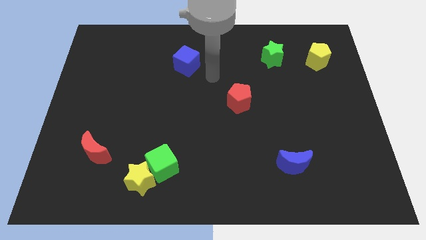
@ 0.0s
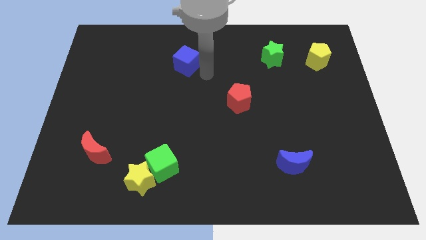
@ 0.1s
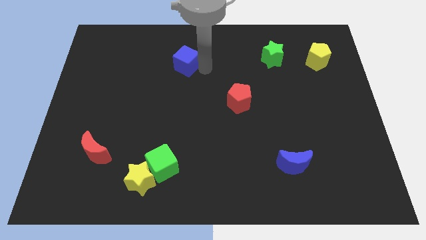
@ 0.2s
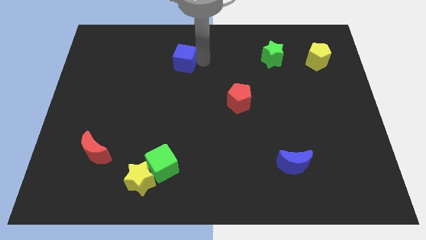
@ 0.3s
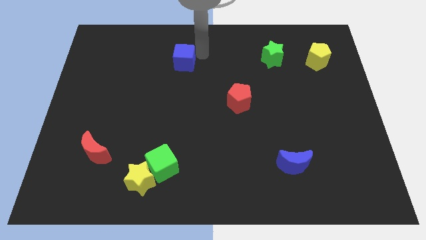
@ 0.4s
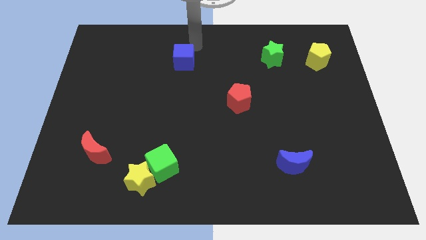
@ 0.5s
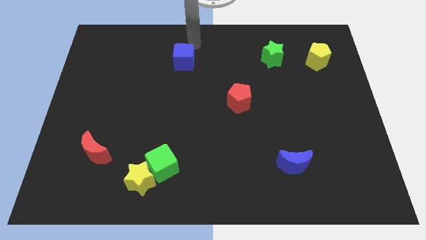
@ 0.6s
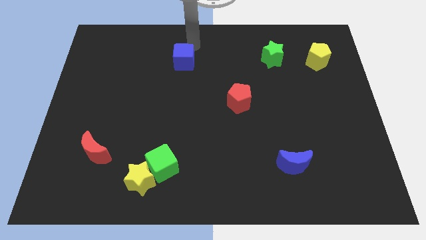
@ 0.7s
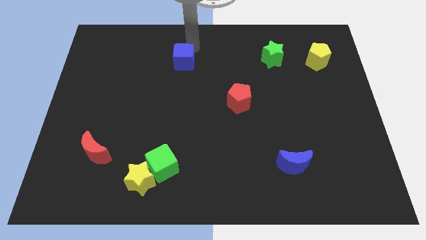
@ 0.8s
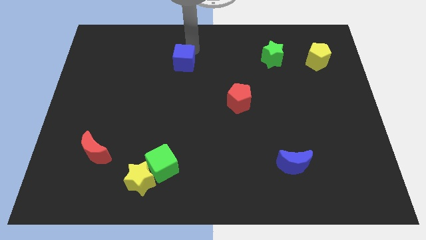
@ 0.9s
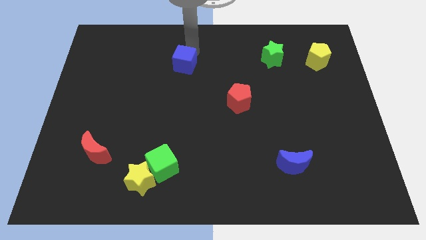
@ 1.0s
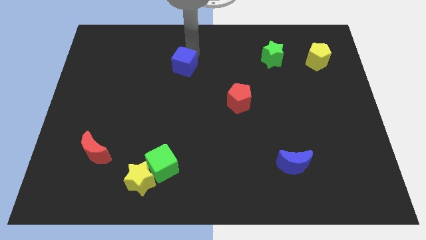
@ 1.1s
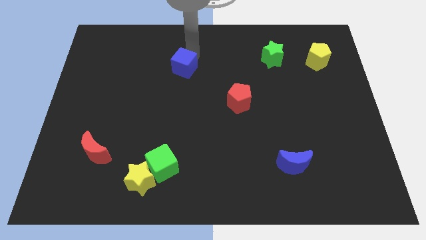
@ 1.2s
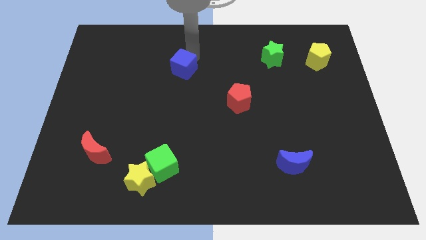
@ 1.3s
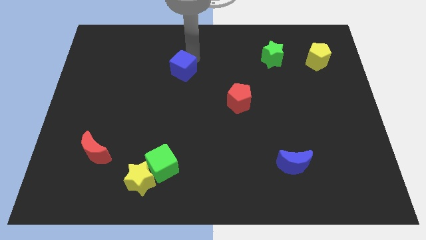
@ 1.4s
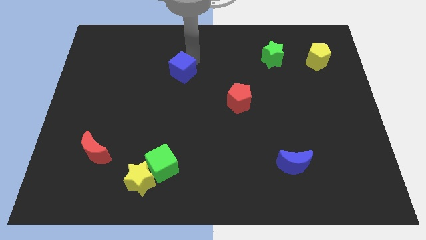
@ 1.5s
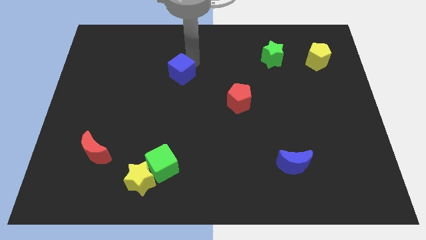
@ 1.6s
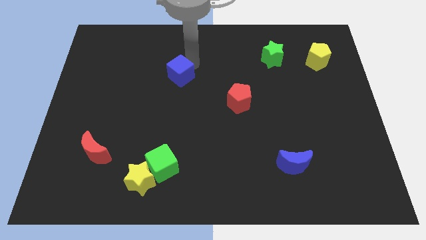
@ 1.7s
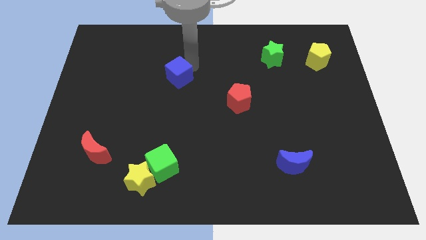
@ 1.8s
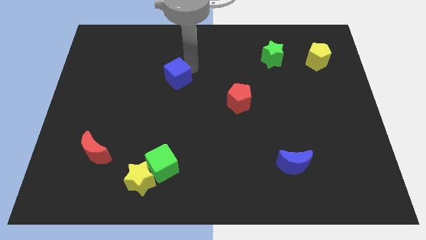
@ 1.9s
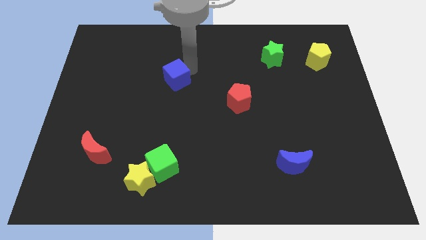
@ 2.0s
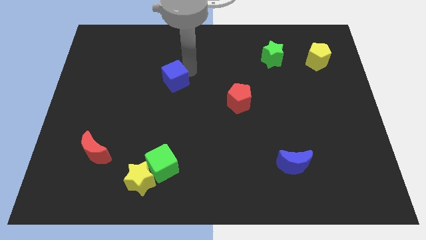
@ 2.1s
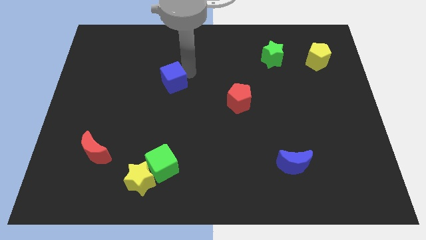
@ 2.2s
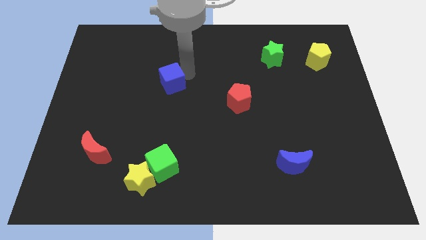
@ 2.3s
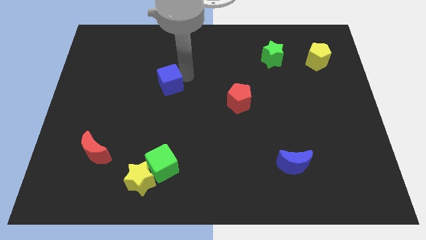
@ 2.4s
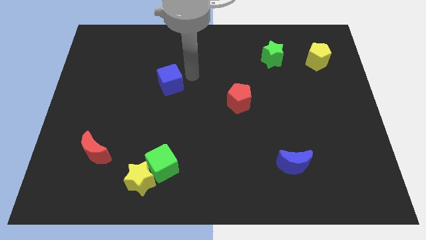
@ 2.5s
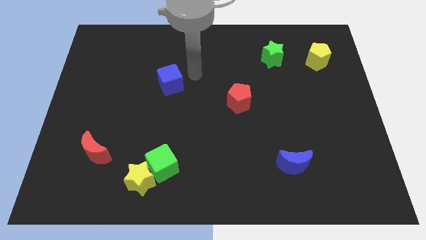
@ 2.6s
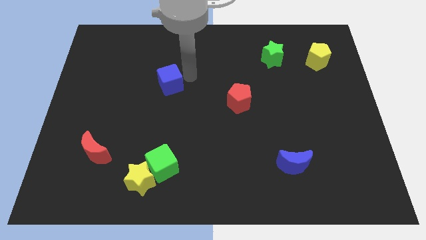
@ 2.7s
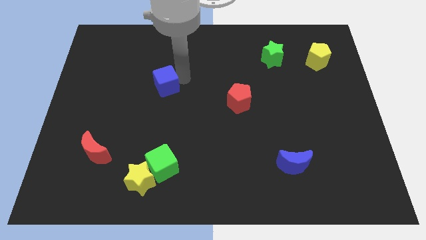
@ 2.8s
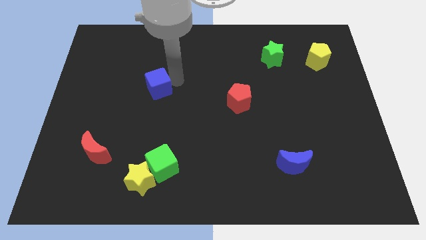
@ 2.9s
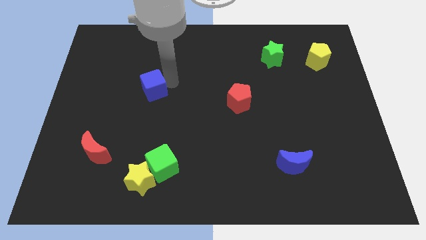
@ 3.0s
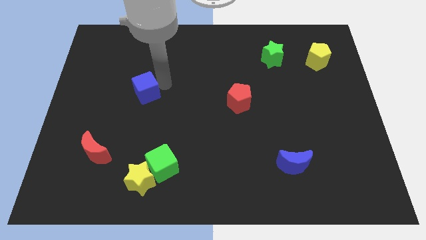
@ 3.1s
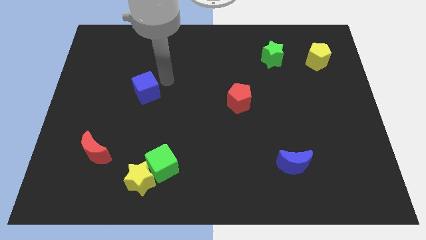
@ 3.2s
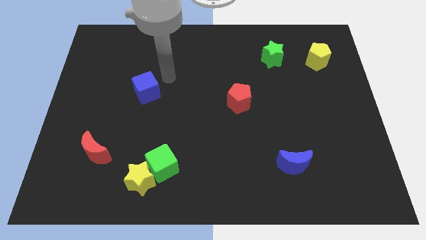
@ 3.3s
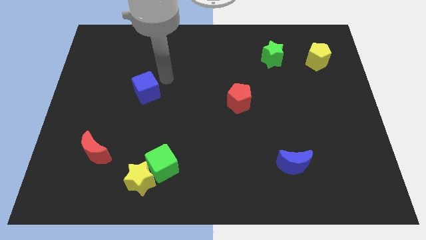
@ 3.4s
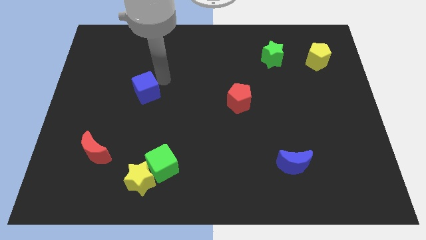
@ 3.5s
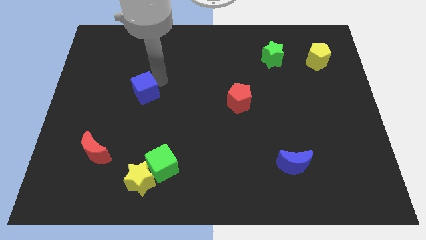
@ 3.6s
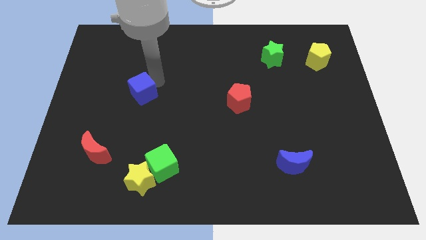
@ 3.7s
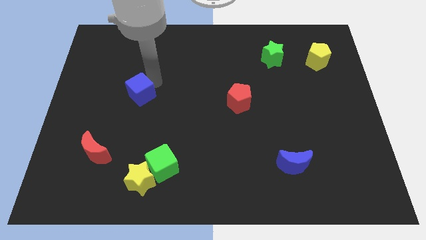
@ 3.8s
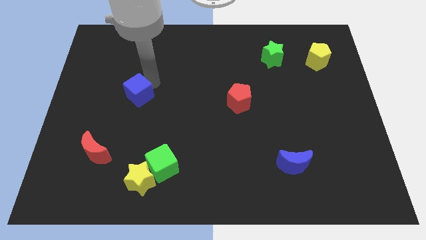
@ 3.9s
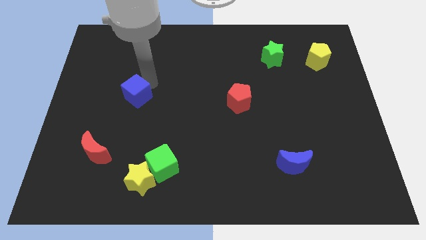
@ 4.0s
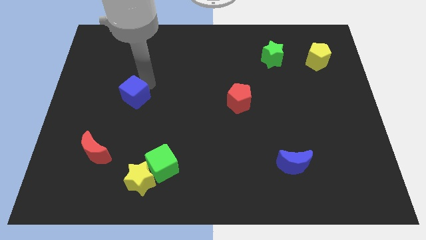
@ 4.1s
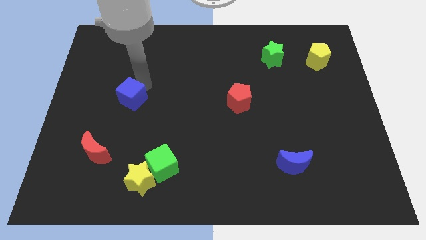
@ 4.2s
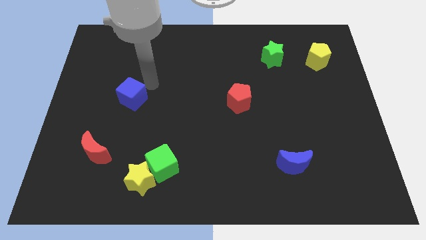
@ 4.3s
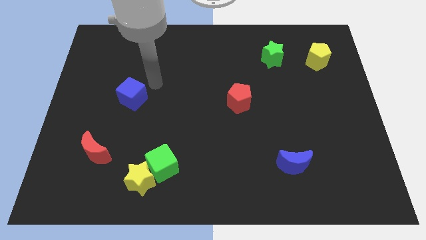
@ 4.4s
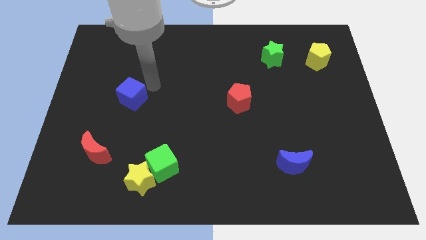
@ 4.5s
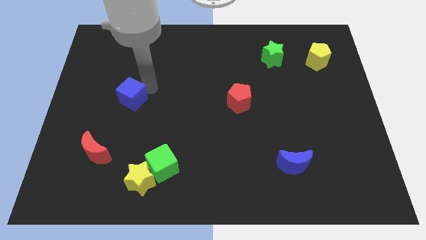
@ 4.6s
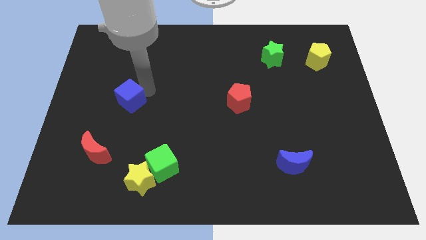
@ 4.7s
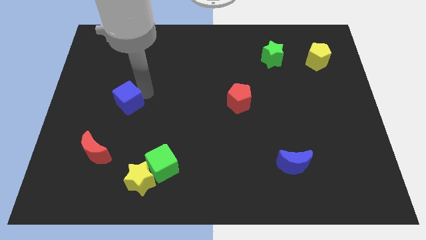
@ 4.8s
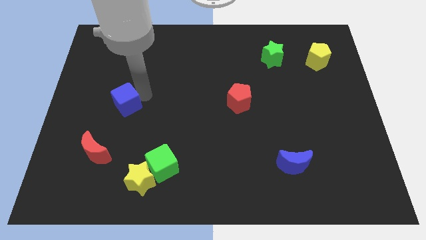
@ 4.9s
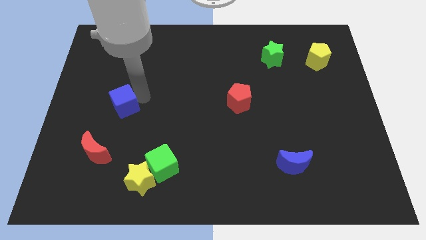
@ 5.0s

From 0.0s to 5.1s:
push the blue cube above the red moon

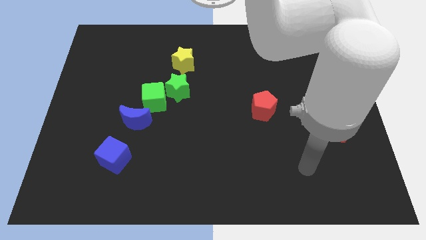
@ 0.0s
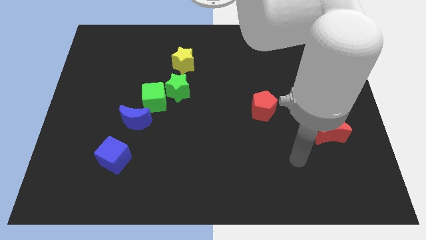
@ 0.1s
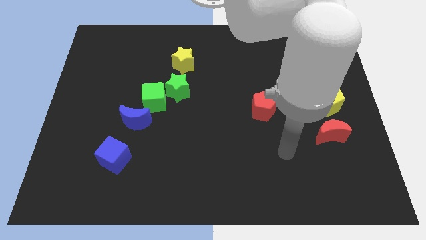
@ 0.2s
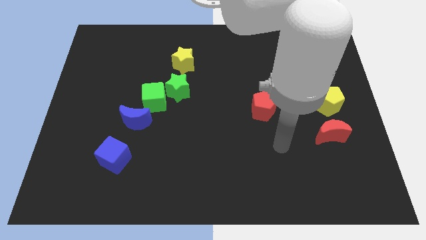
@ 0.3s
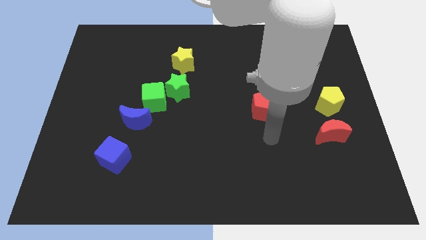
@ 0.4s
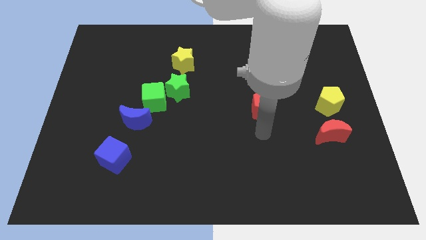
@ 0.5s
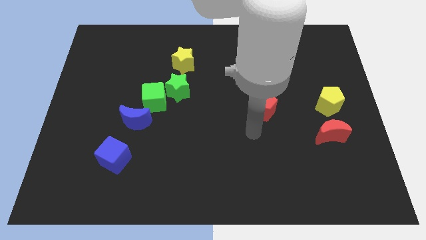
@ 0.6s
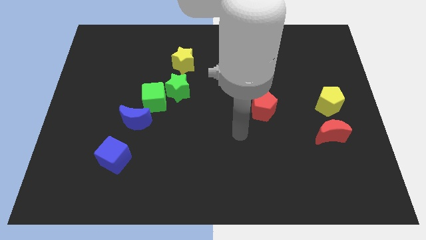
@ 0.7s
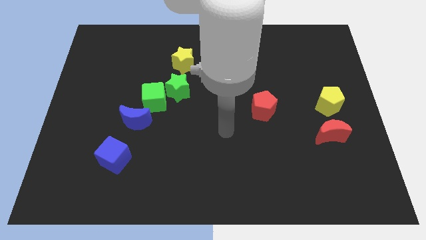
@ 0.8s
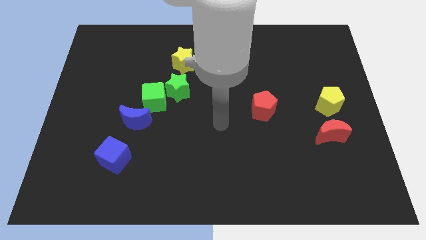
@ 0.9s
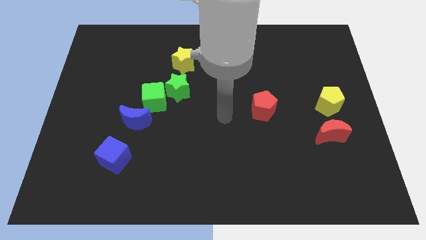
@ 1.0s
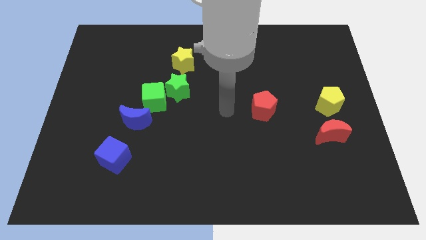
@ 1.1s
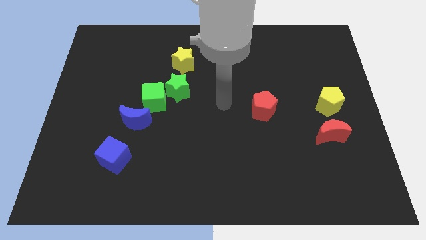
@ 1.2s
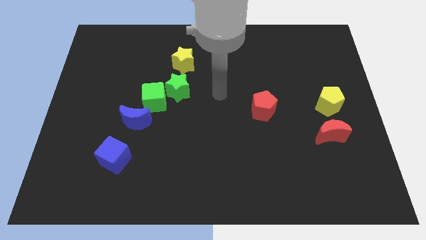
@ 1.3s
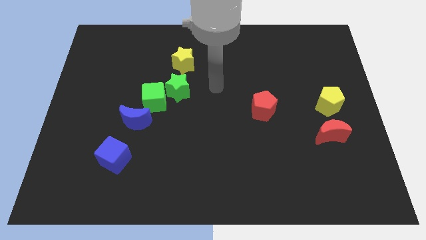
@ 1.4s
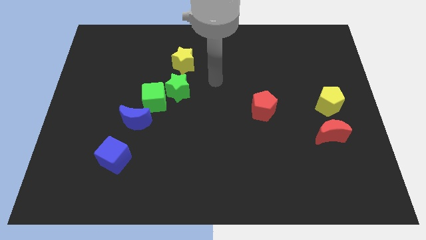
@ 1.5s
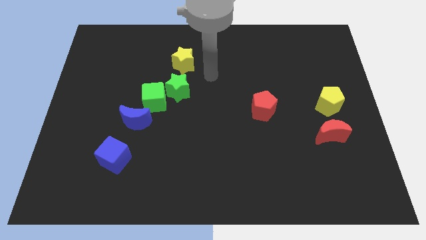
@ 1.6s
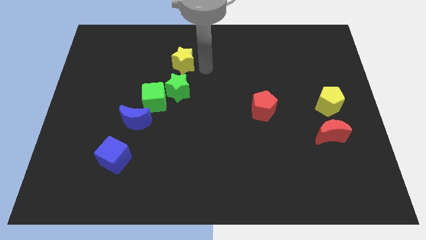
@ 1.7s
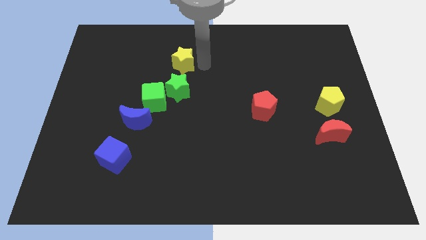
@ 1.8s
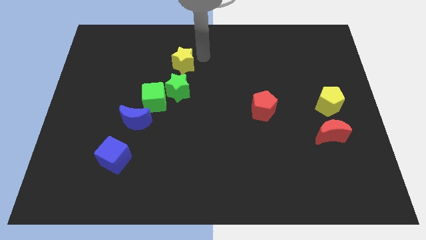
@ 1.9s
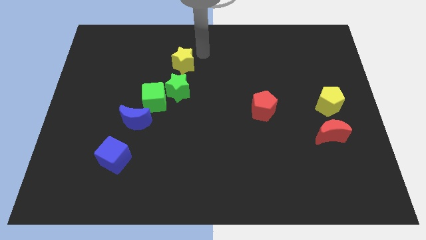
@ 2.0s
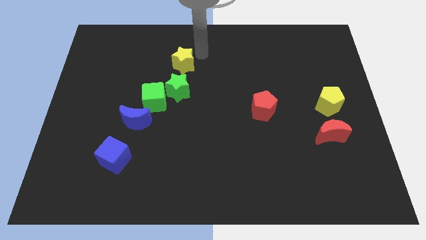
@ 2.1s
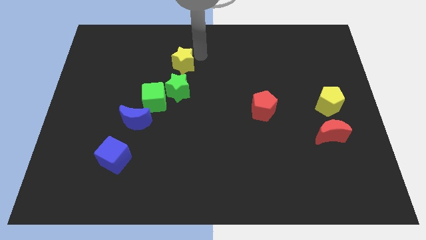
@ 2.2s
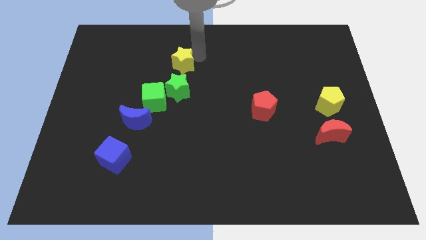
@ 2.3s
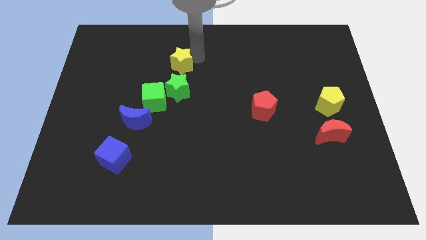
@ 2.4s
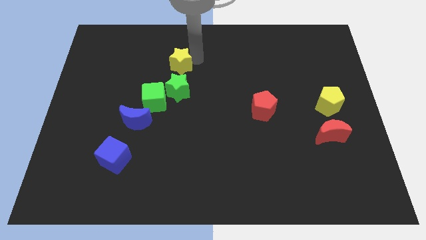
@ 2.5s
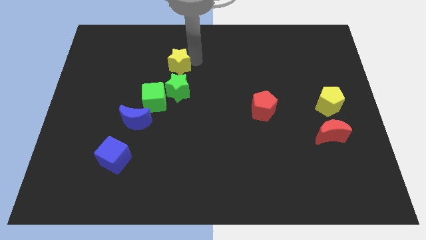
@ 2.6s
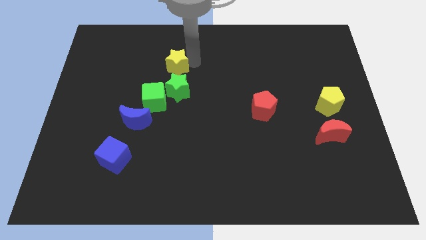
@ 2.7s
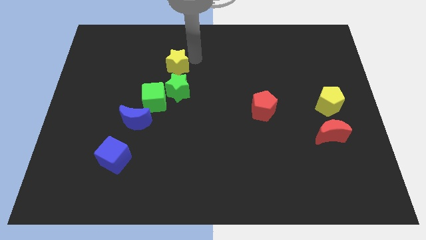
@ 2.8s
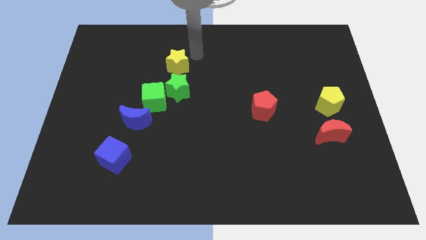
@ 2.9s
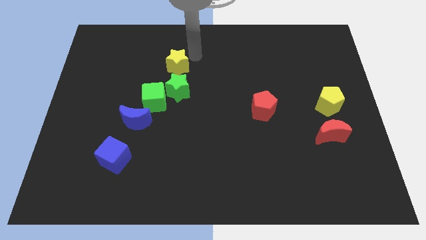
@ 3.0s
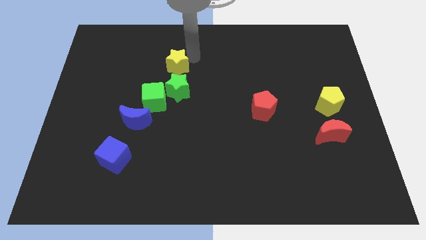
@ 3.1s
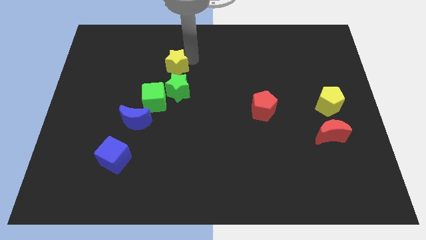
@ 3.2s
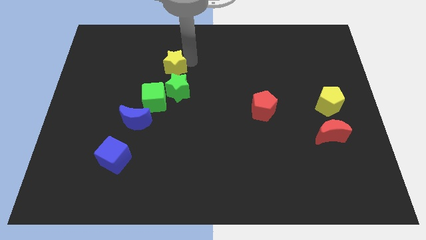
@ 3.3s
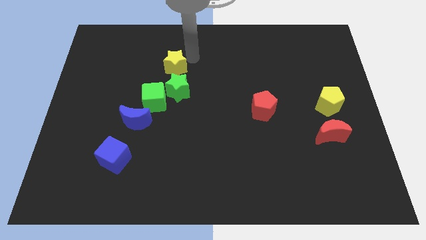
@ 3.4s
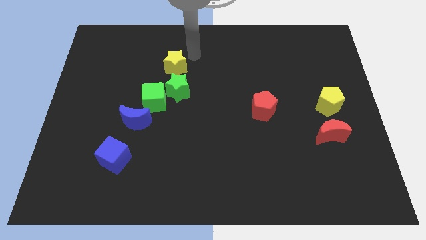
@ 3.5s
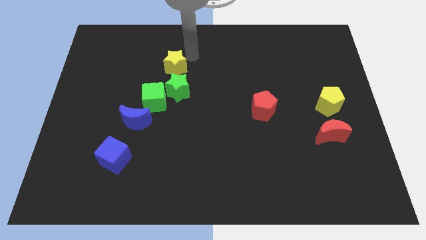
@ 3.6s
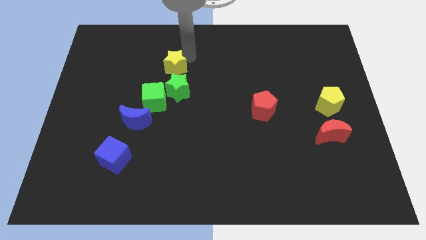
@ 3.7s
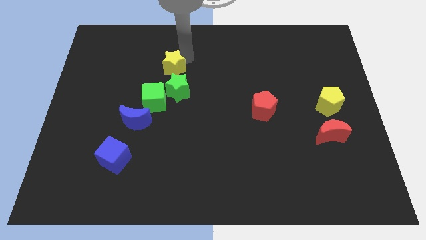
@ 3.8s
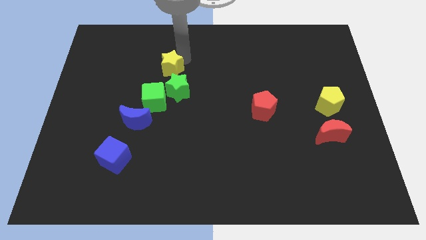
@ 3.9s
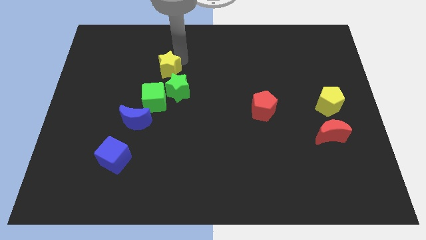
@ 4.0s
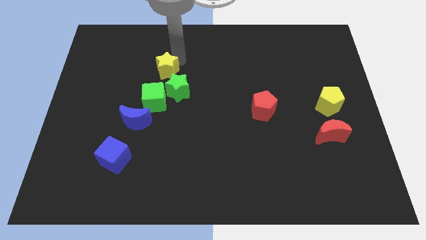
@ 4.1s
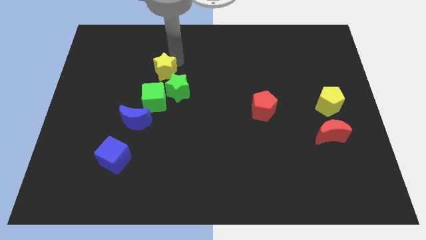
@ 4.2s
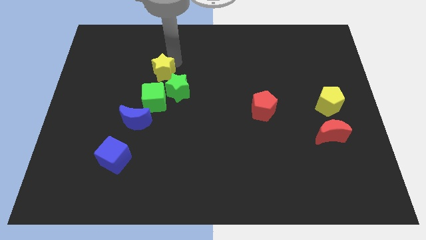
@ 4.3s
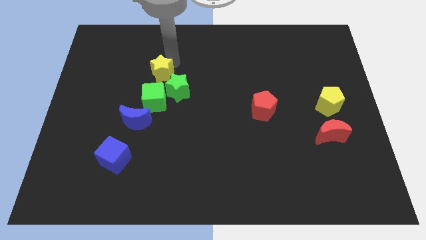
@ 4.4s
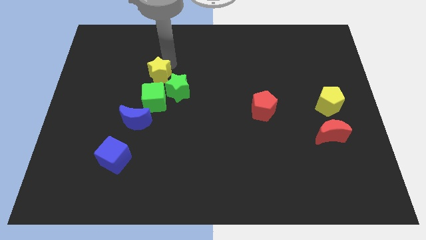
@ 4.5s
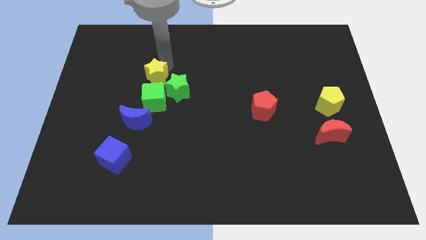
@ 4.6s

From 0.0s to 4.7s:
move the yellow star to the left side of the green star
